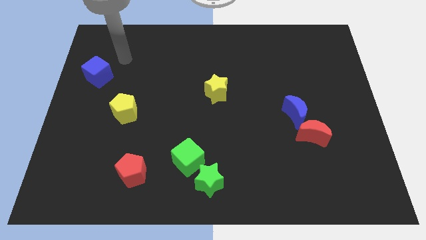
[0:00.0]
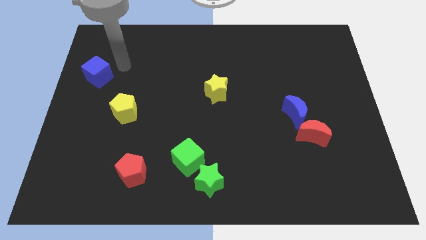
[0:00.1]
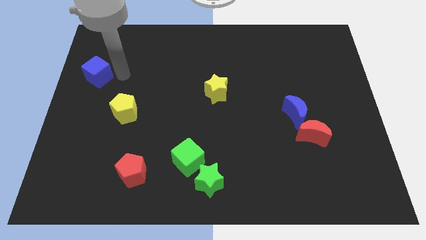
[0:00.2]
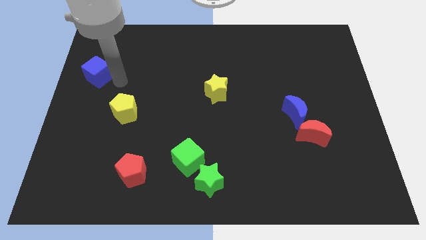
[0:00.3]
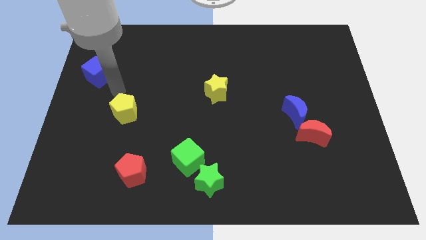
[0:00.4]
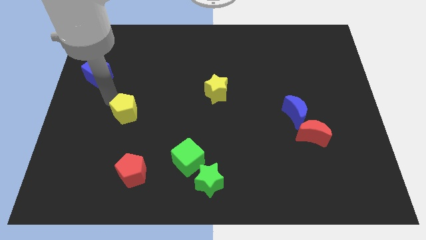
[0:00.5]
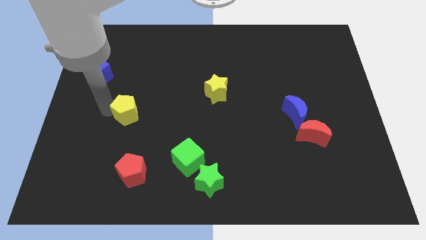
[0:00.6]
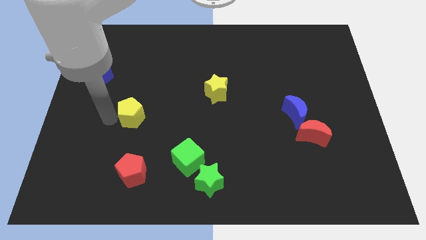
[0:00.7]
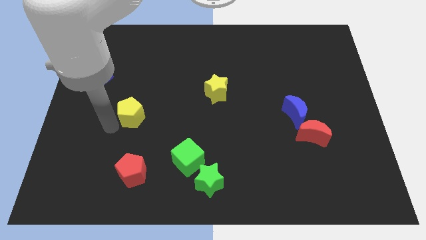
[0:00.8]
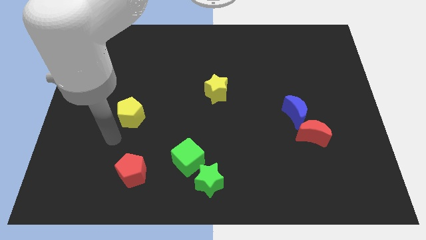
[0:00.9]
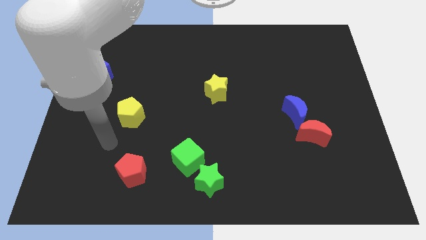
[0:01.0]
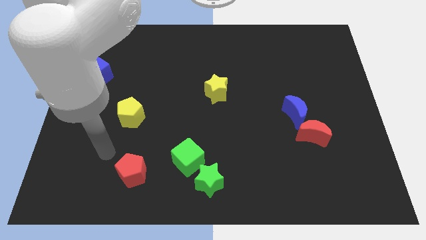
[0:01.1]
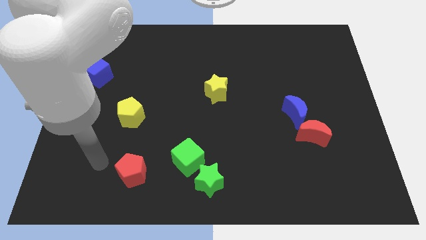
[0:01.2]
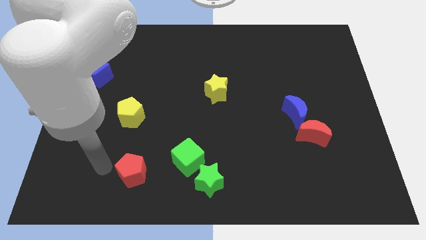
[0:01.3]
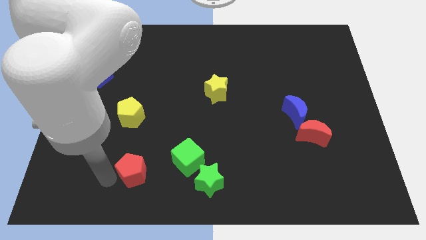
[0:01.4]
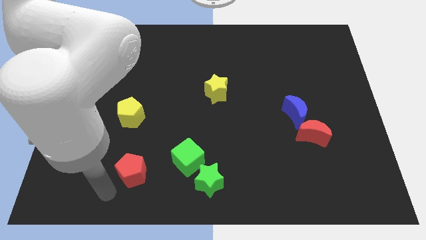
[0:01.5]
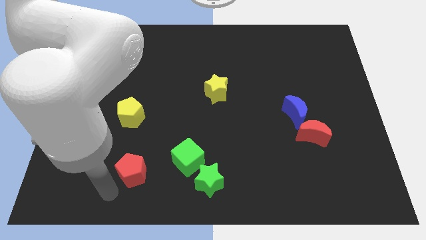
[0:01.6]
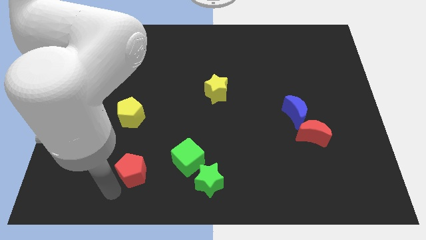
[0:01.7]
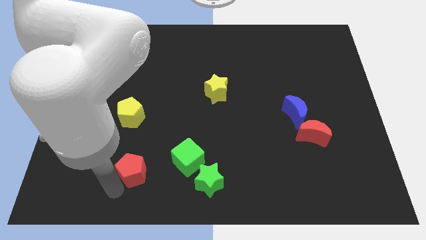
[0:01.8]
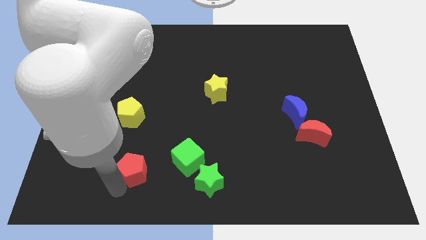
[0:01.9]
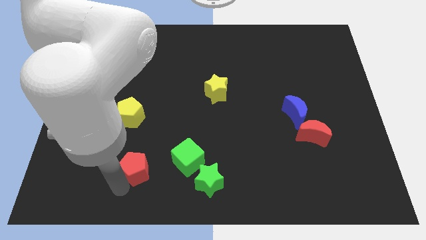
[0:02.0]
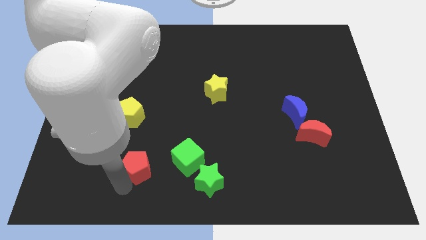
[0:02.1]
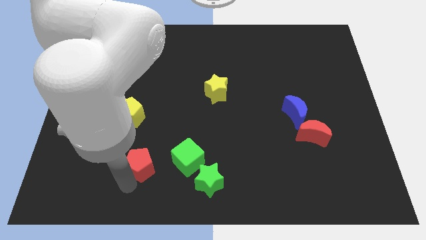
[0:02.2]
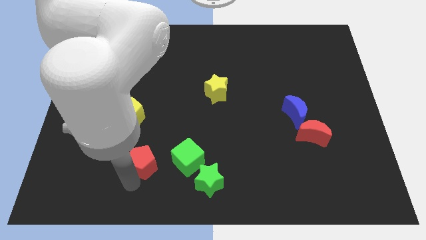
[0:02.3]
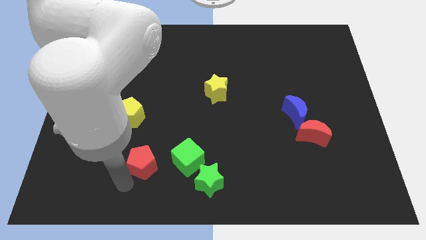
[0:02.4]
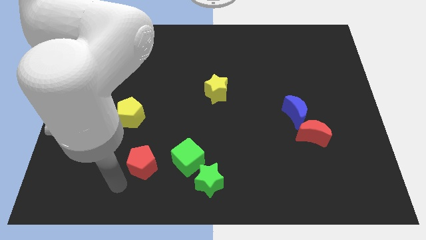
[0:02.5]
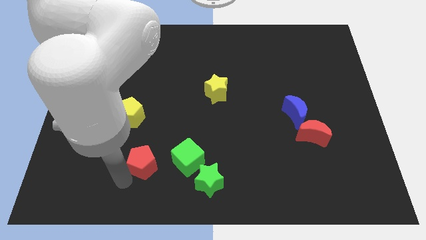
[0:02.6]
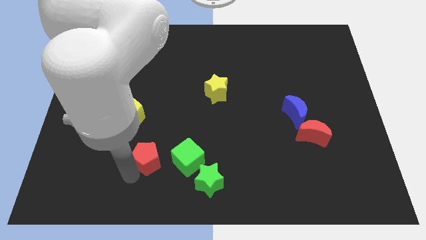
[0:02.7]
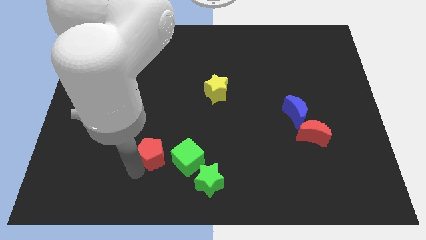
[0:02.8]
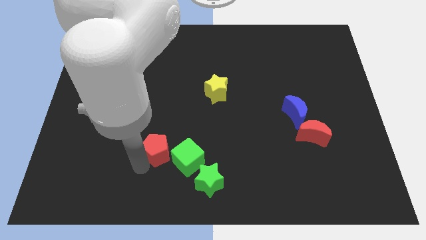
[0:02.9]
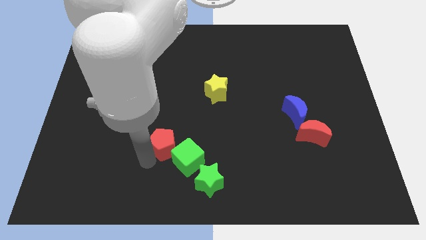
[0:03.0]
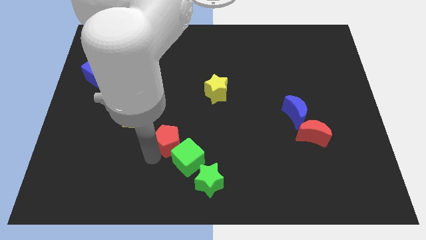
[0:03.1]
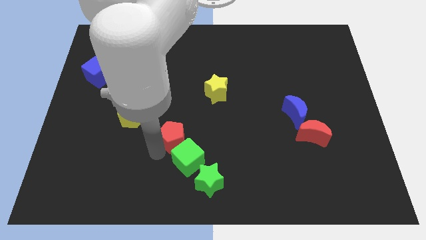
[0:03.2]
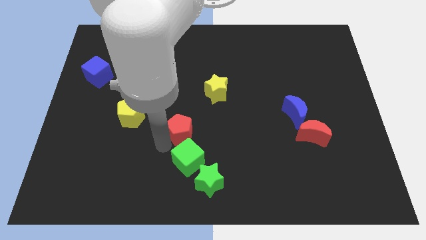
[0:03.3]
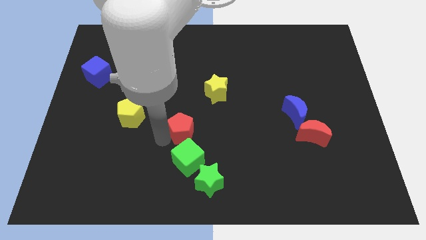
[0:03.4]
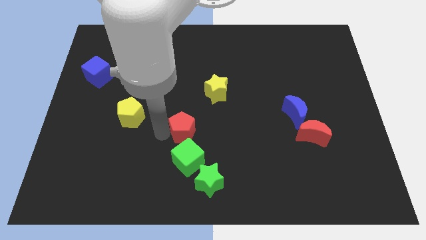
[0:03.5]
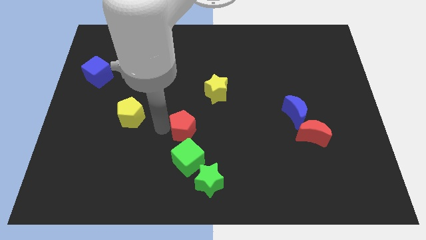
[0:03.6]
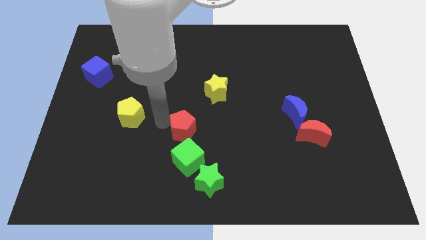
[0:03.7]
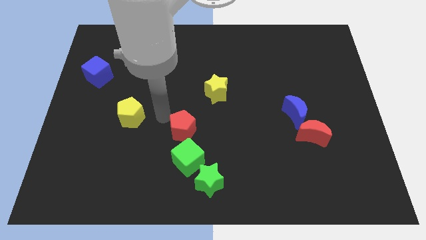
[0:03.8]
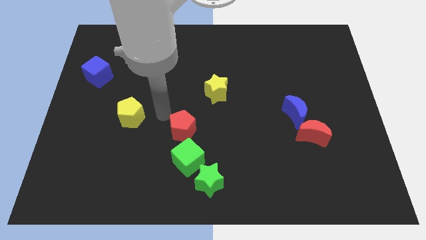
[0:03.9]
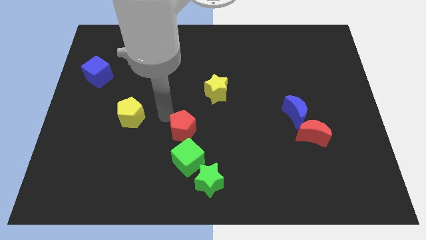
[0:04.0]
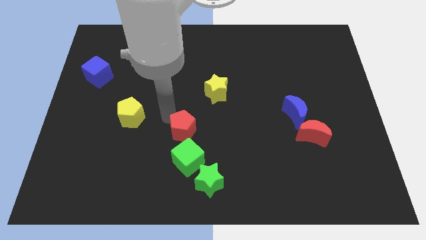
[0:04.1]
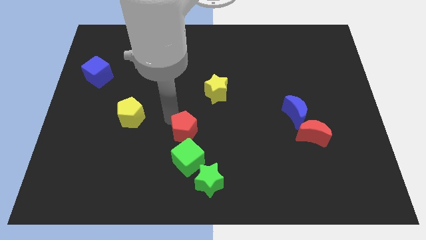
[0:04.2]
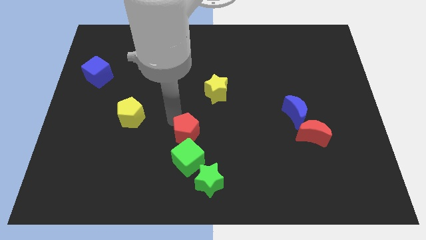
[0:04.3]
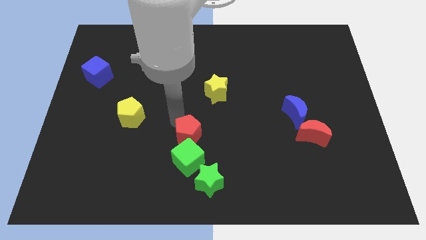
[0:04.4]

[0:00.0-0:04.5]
slightly slide the red pentagon to the right

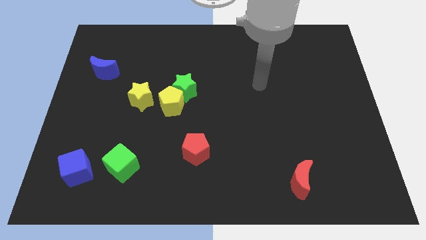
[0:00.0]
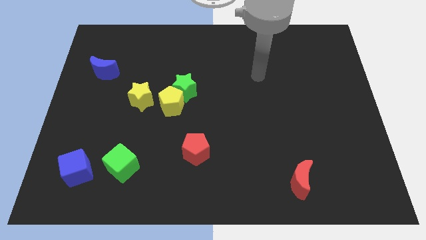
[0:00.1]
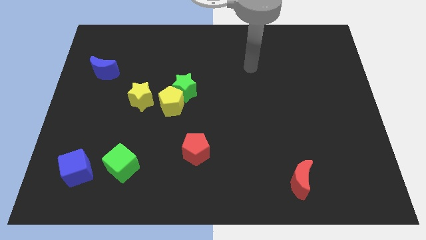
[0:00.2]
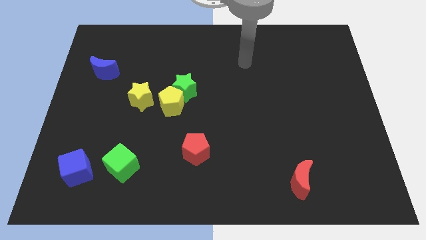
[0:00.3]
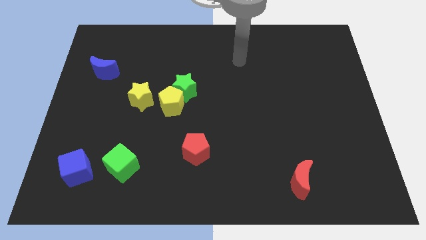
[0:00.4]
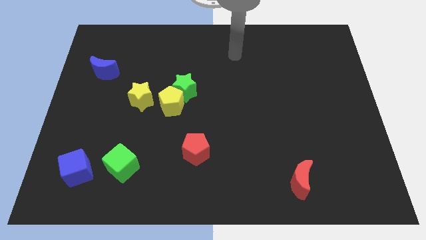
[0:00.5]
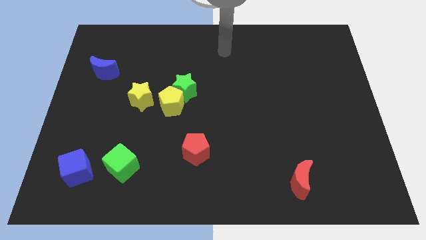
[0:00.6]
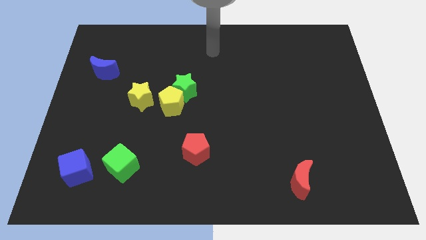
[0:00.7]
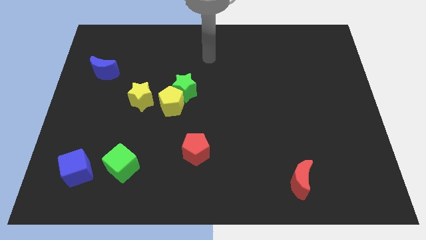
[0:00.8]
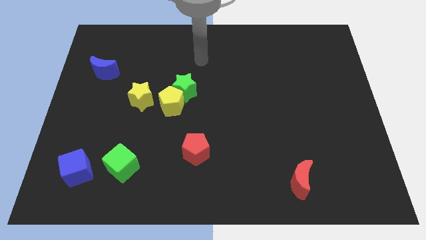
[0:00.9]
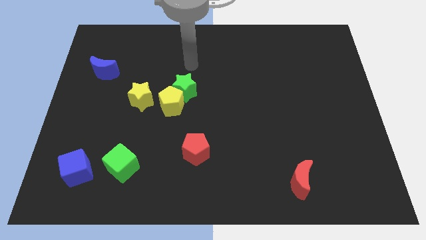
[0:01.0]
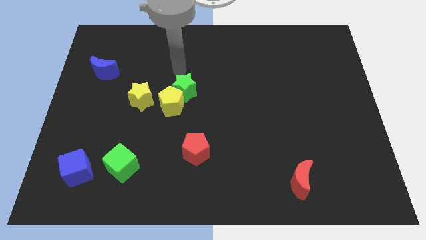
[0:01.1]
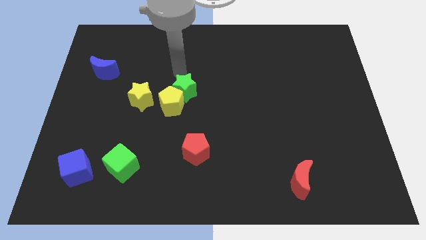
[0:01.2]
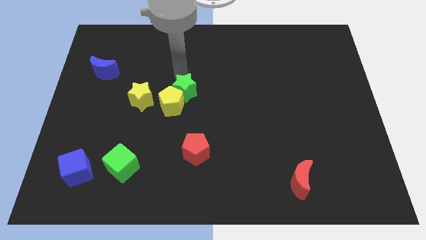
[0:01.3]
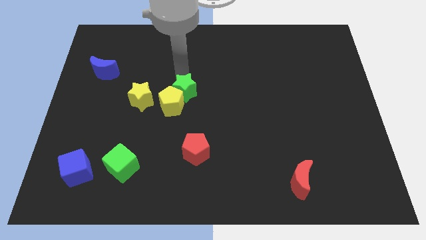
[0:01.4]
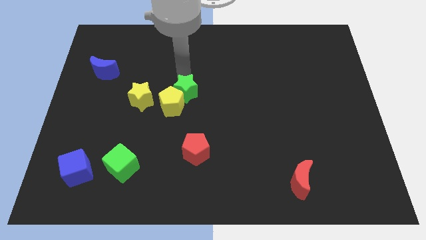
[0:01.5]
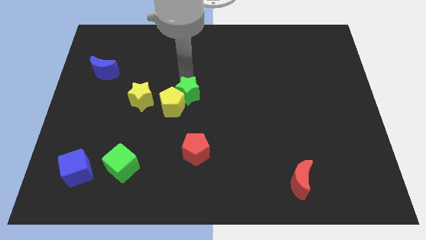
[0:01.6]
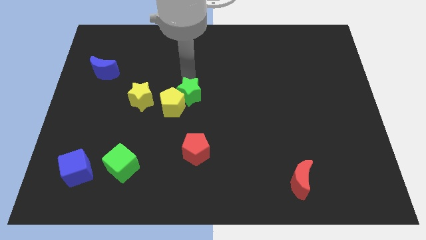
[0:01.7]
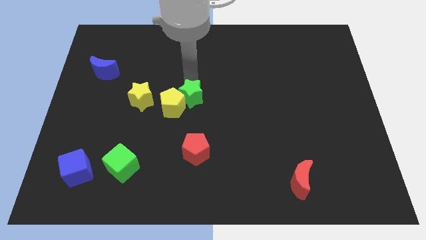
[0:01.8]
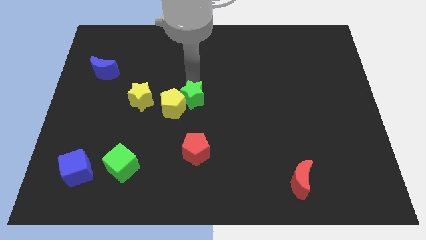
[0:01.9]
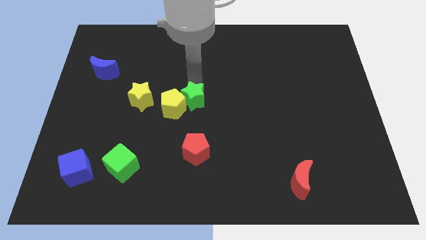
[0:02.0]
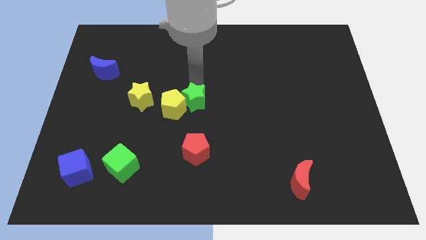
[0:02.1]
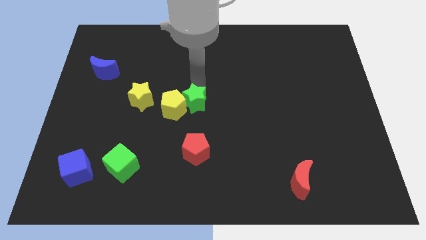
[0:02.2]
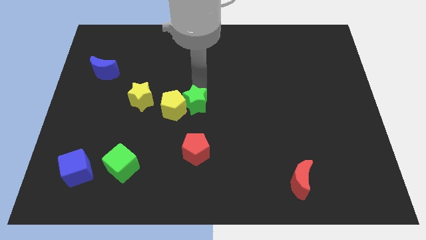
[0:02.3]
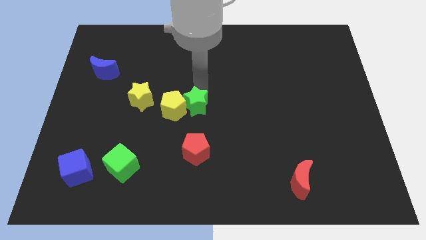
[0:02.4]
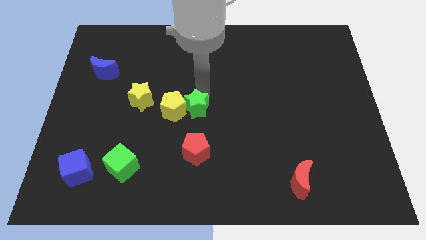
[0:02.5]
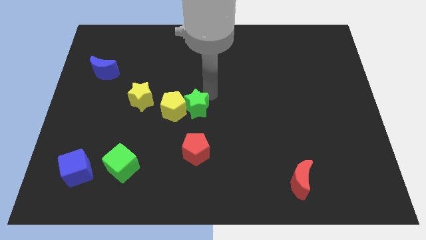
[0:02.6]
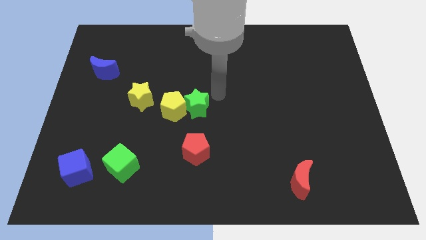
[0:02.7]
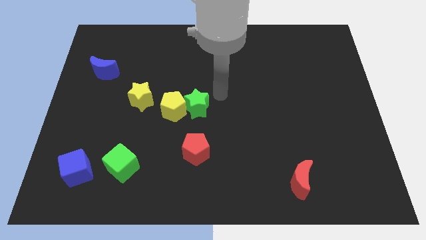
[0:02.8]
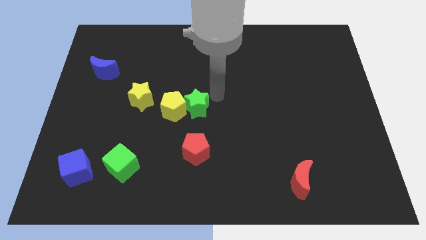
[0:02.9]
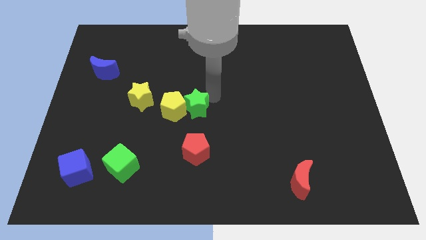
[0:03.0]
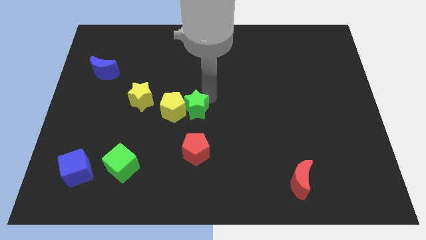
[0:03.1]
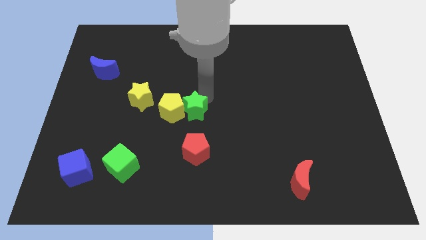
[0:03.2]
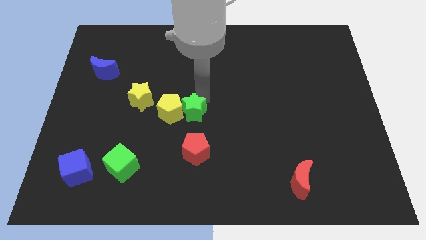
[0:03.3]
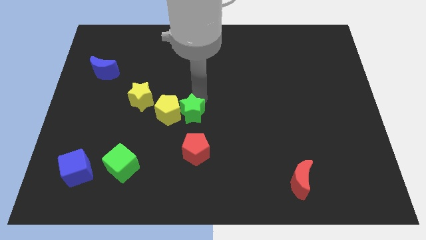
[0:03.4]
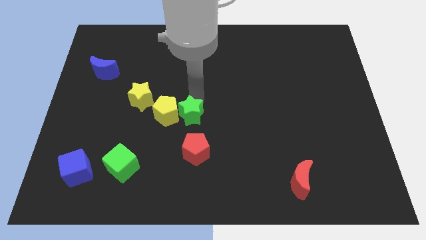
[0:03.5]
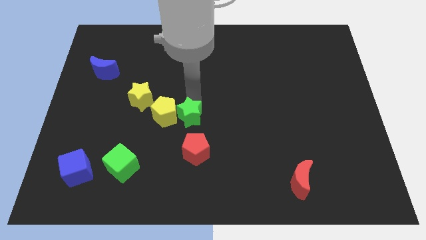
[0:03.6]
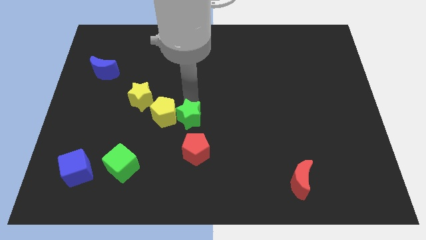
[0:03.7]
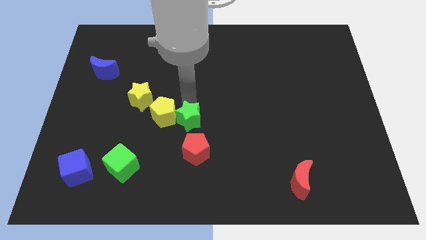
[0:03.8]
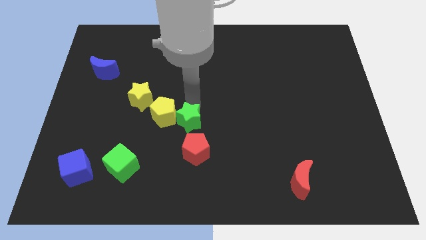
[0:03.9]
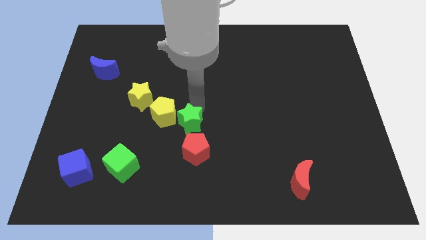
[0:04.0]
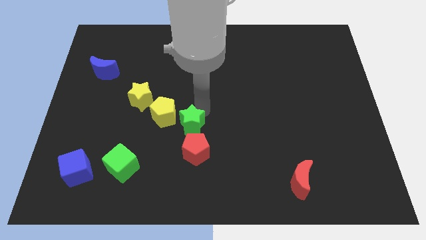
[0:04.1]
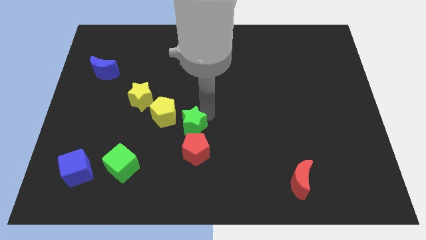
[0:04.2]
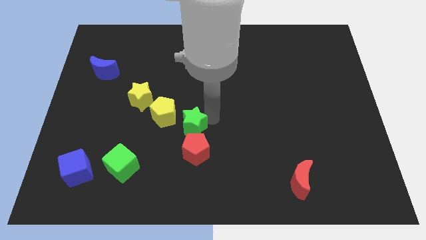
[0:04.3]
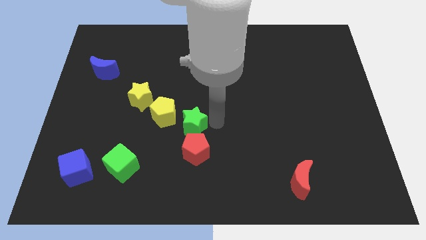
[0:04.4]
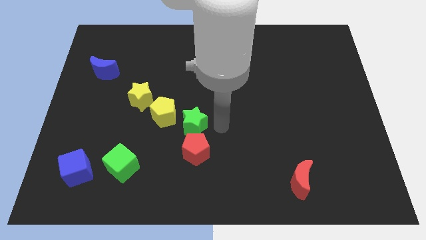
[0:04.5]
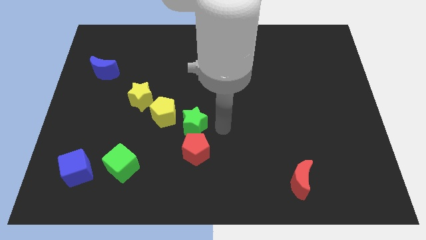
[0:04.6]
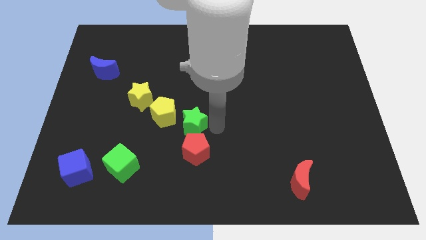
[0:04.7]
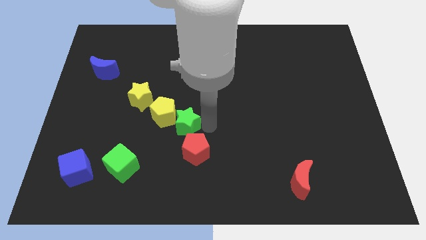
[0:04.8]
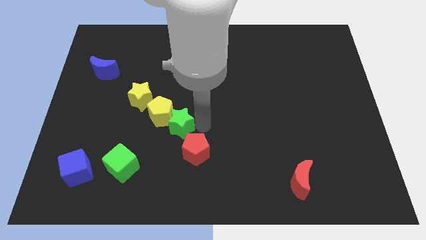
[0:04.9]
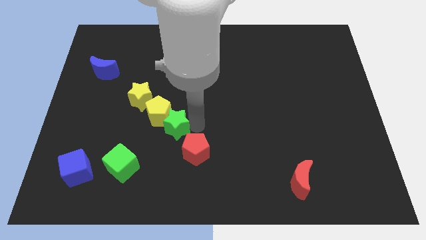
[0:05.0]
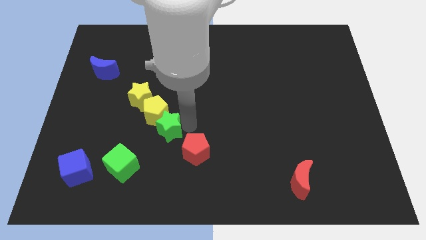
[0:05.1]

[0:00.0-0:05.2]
slightly move the green star downwards and left diagonally
